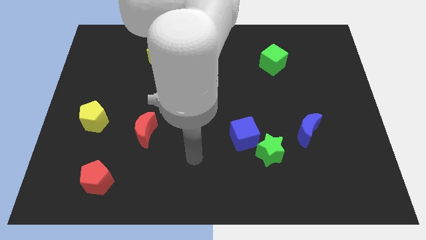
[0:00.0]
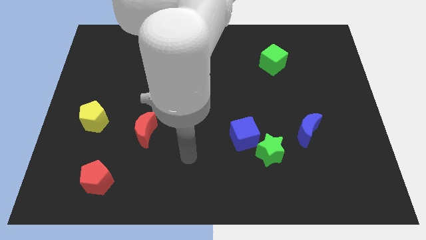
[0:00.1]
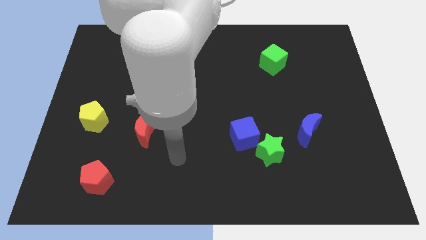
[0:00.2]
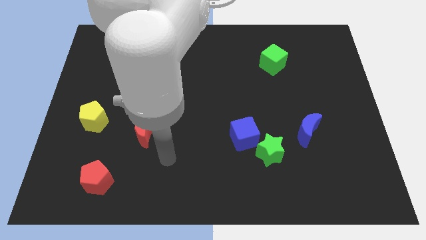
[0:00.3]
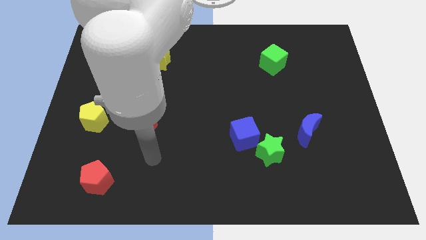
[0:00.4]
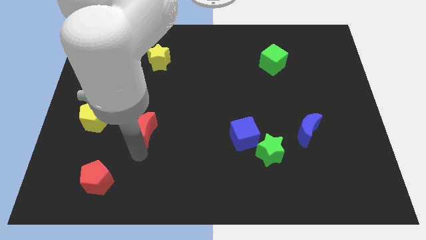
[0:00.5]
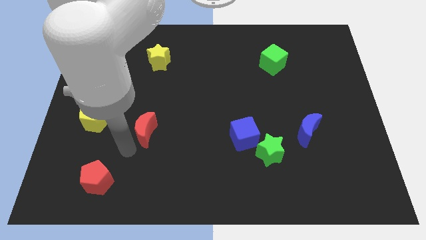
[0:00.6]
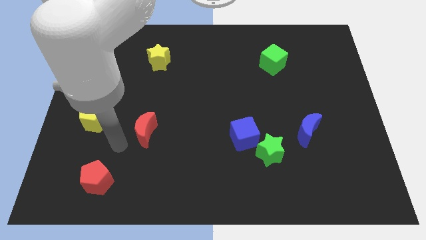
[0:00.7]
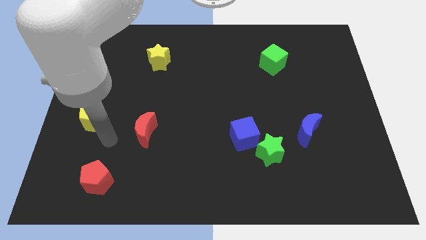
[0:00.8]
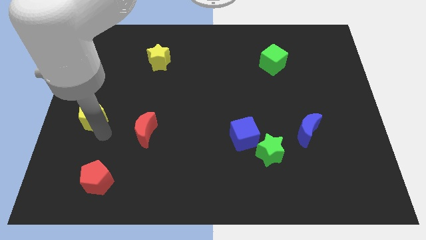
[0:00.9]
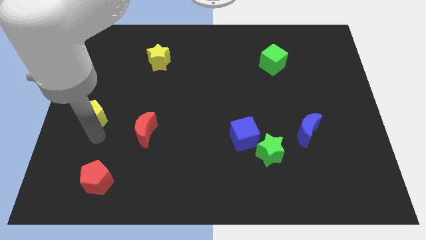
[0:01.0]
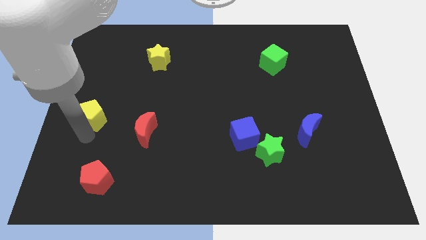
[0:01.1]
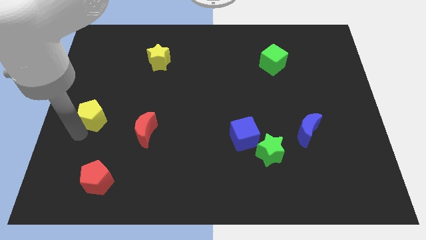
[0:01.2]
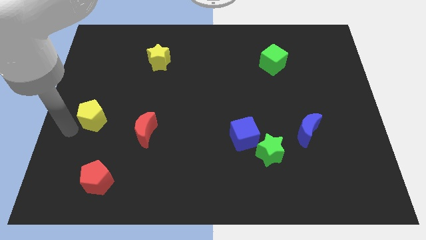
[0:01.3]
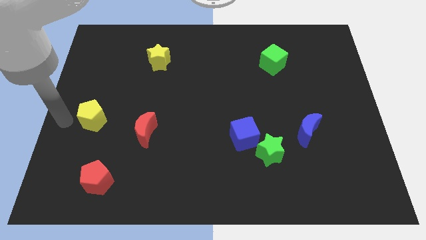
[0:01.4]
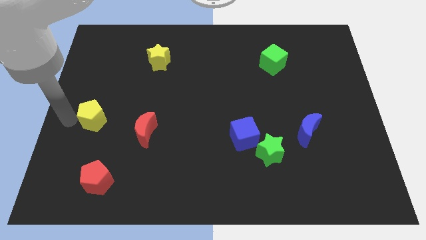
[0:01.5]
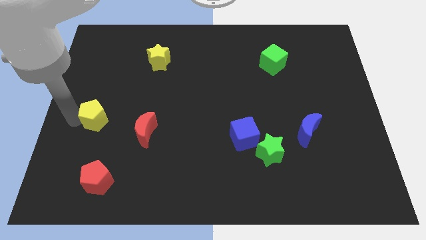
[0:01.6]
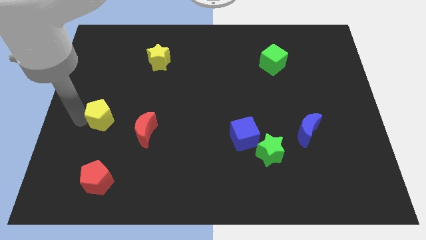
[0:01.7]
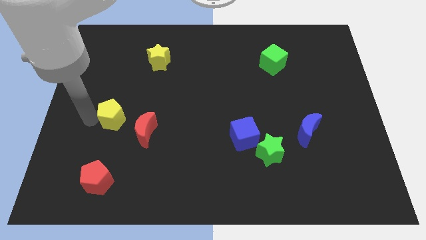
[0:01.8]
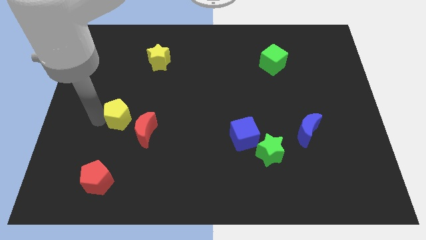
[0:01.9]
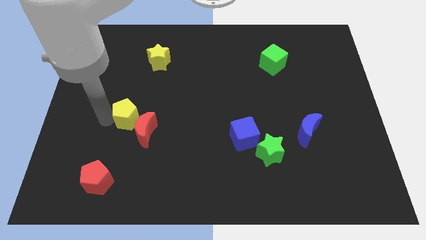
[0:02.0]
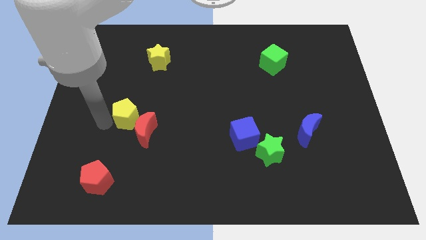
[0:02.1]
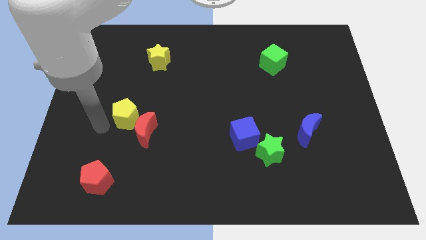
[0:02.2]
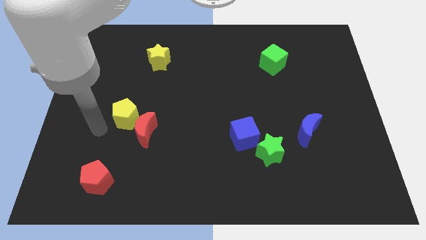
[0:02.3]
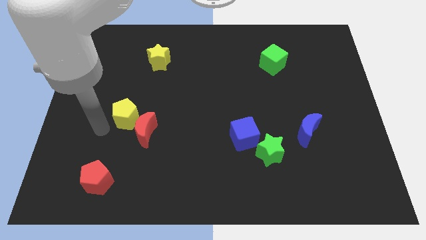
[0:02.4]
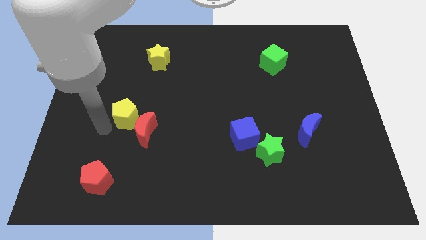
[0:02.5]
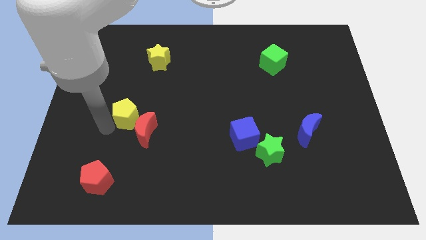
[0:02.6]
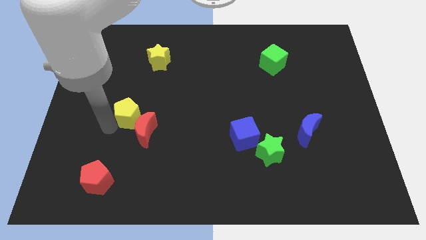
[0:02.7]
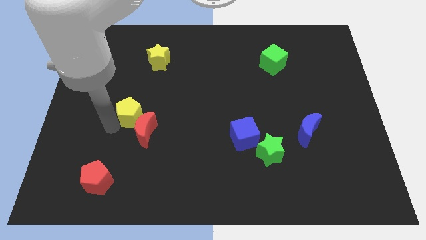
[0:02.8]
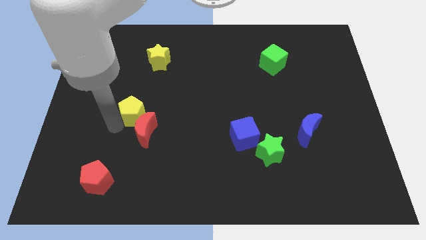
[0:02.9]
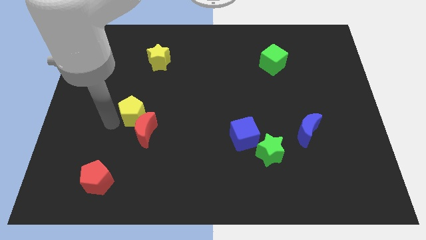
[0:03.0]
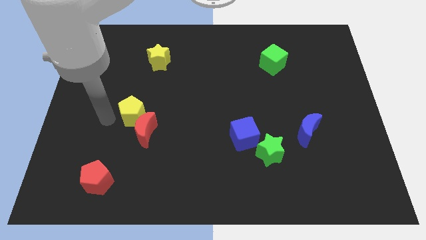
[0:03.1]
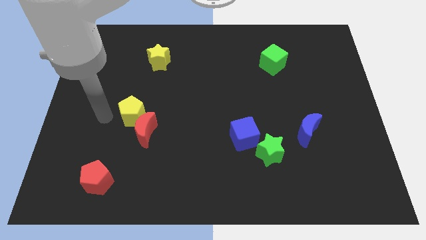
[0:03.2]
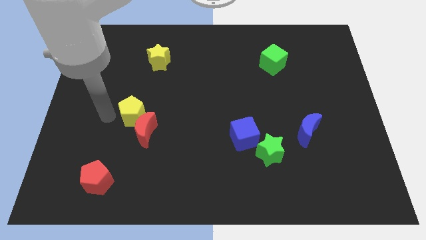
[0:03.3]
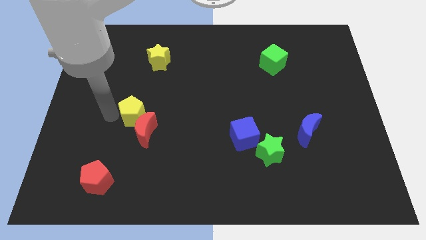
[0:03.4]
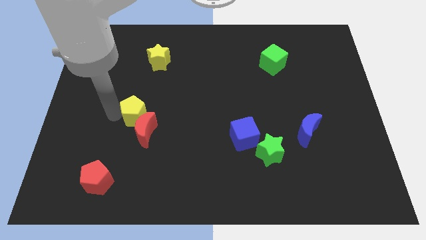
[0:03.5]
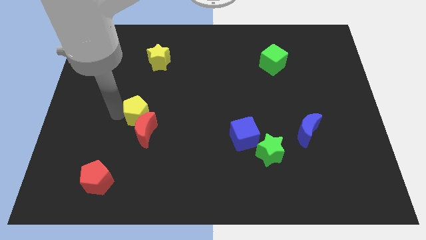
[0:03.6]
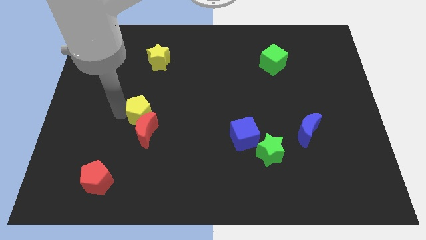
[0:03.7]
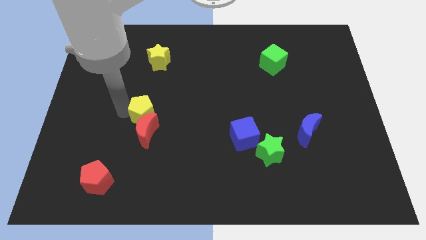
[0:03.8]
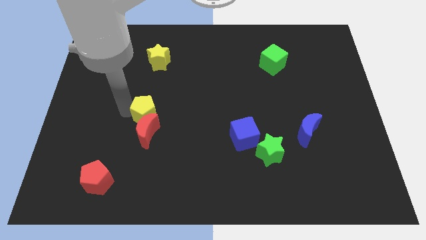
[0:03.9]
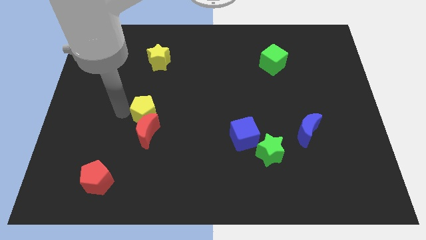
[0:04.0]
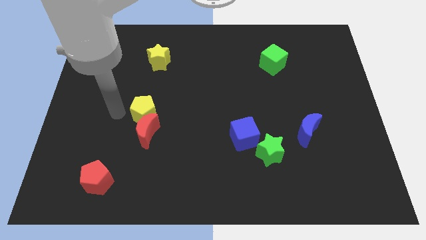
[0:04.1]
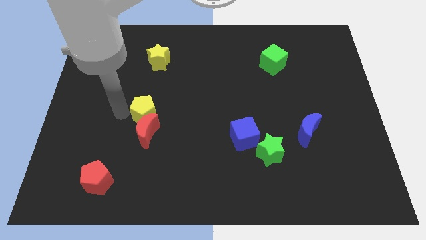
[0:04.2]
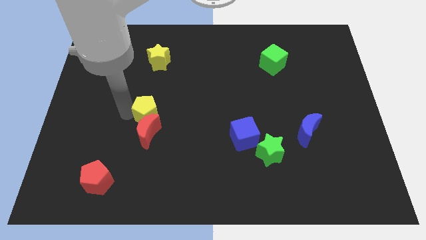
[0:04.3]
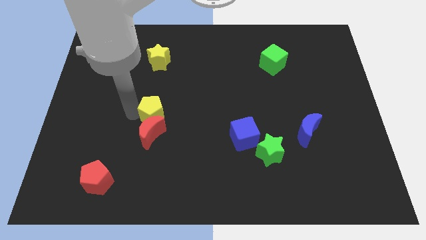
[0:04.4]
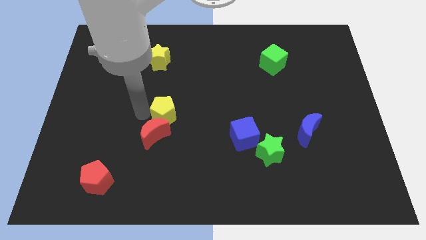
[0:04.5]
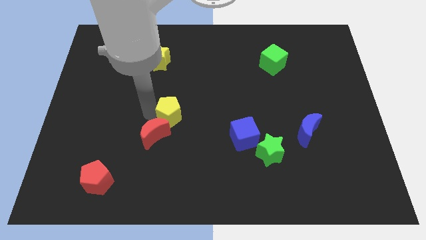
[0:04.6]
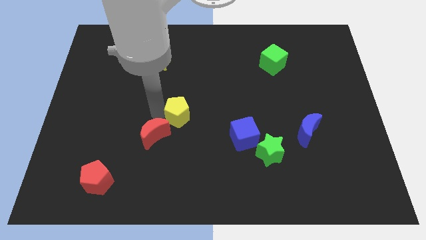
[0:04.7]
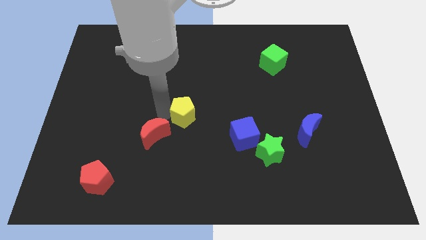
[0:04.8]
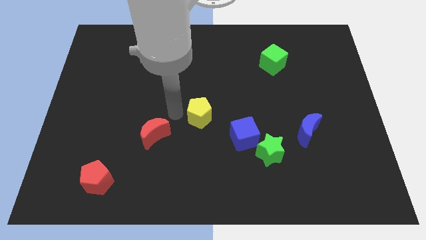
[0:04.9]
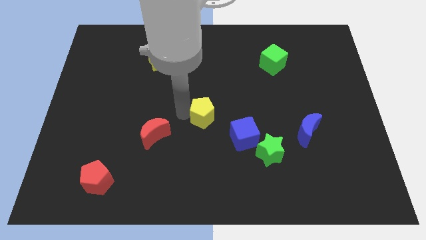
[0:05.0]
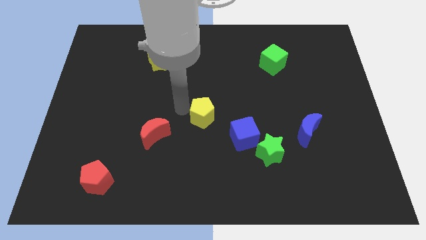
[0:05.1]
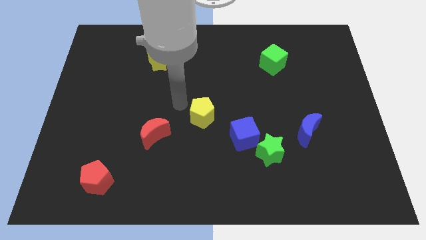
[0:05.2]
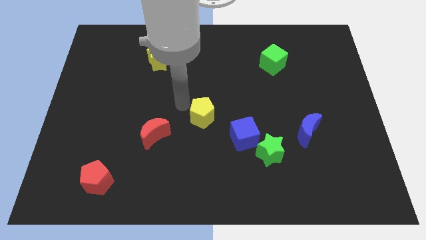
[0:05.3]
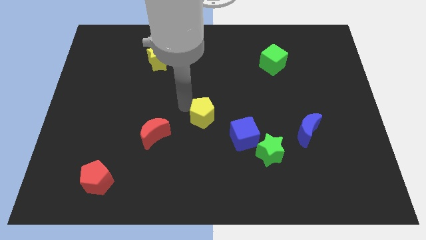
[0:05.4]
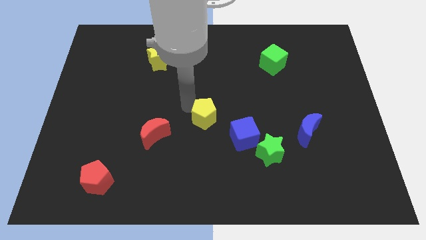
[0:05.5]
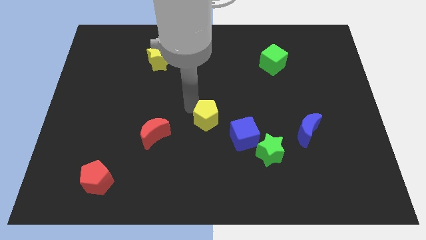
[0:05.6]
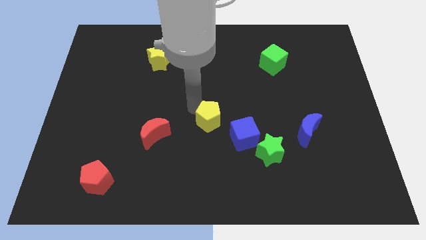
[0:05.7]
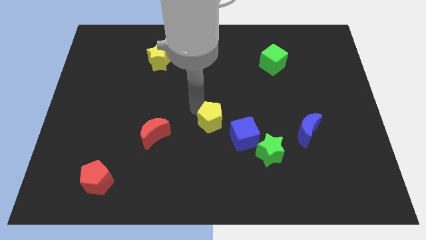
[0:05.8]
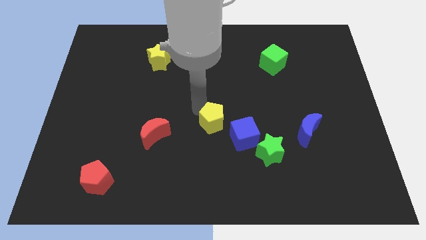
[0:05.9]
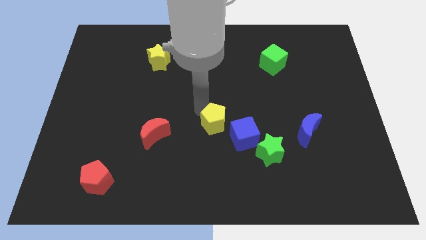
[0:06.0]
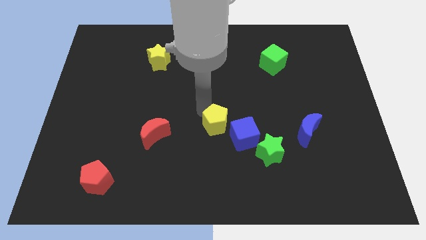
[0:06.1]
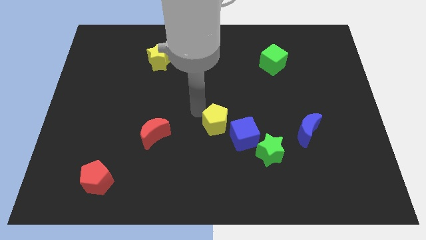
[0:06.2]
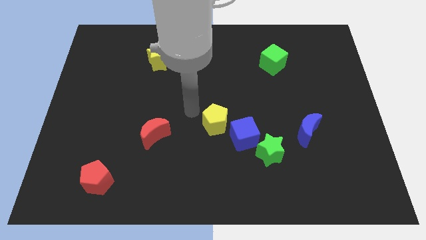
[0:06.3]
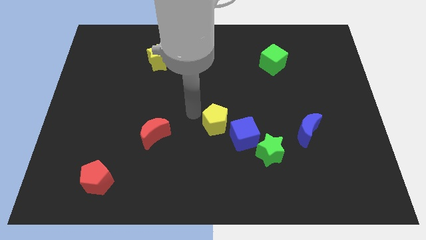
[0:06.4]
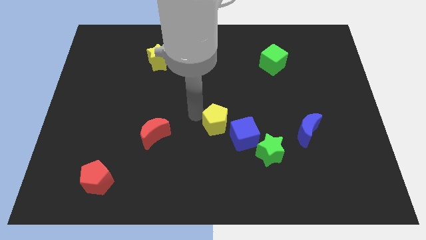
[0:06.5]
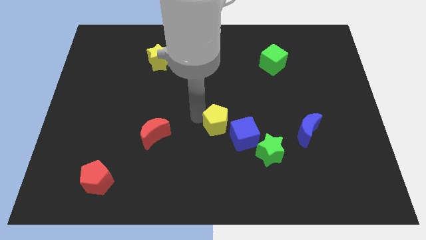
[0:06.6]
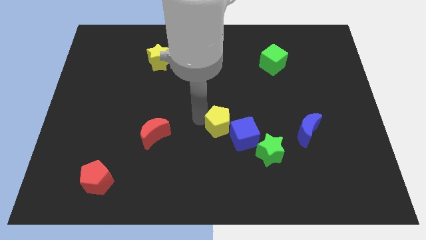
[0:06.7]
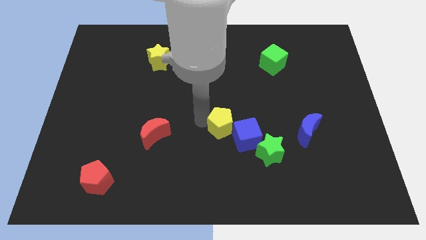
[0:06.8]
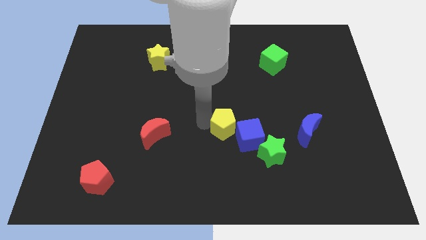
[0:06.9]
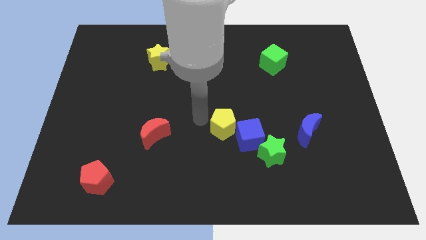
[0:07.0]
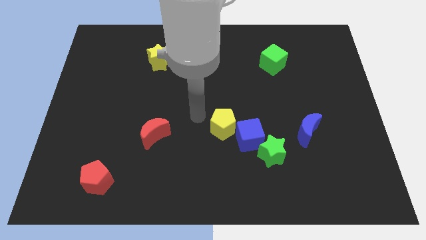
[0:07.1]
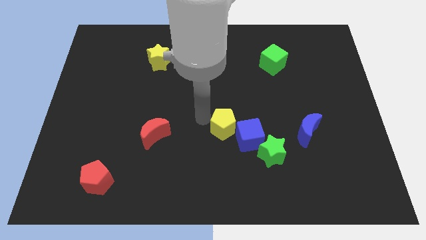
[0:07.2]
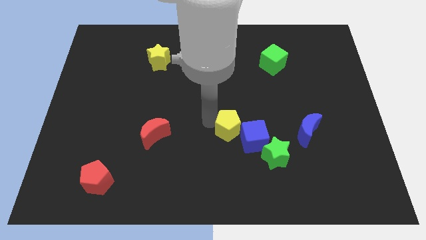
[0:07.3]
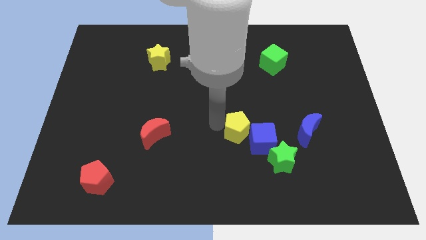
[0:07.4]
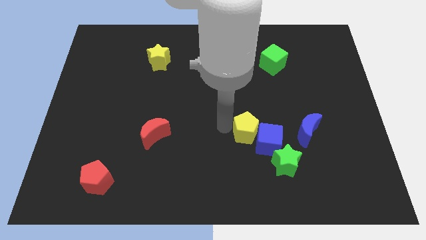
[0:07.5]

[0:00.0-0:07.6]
put the yellow pentagon next to the blue cube
